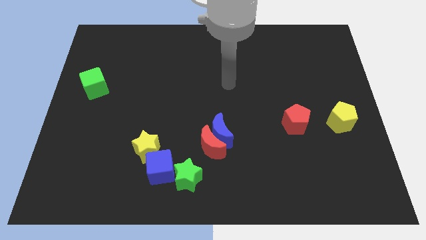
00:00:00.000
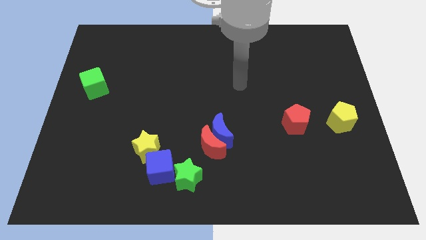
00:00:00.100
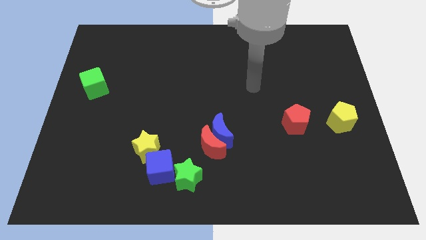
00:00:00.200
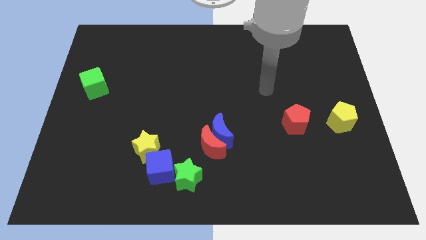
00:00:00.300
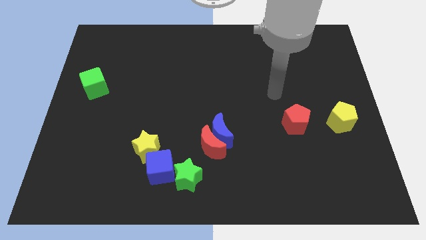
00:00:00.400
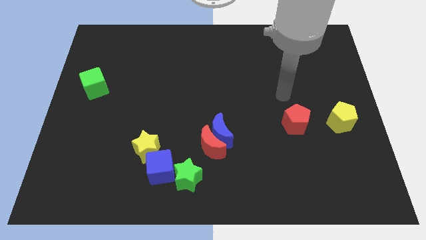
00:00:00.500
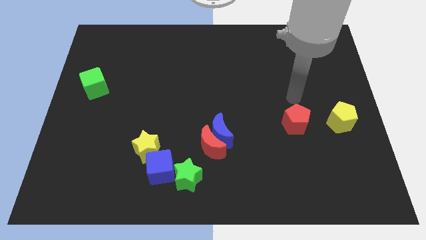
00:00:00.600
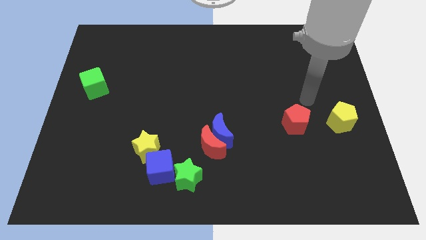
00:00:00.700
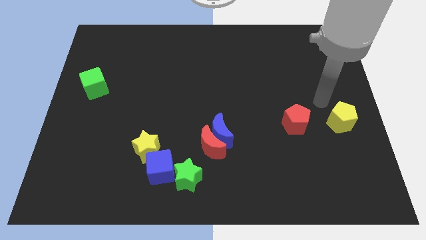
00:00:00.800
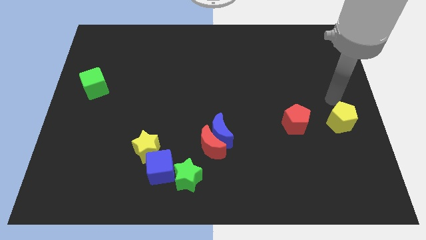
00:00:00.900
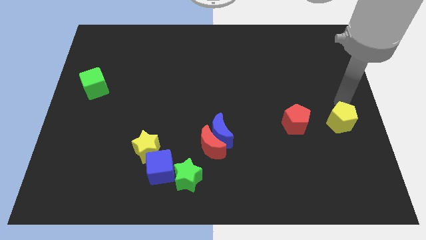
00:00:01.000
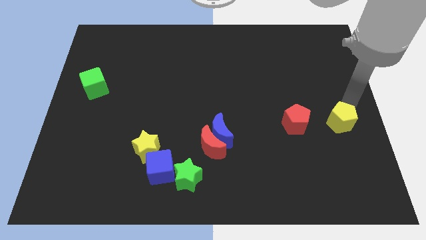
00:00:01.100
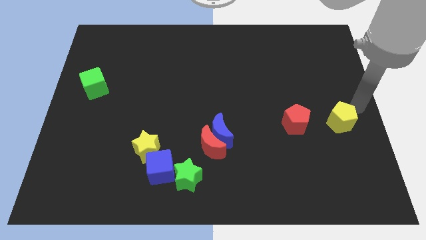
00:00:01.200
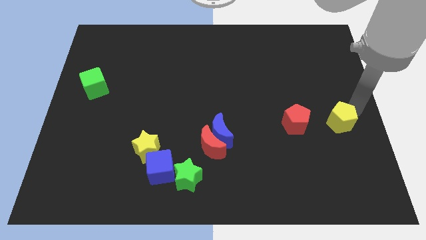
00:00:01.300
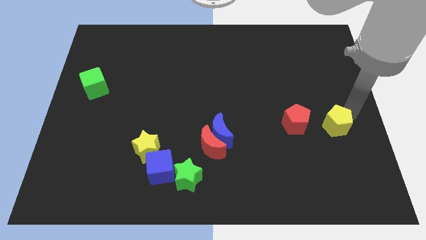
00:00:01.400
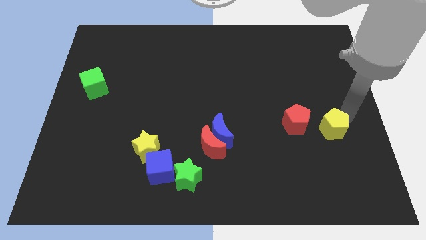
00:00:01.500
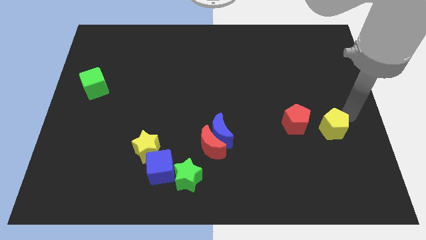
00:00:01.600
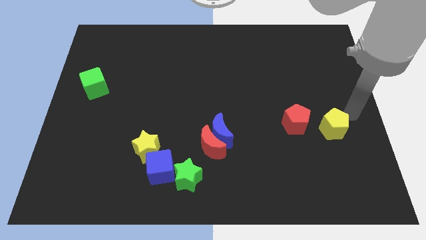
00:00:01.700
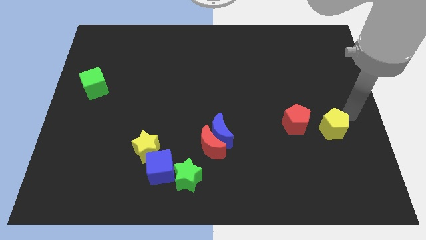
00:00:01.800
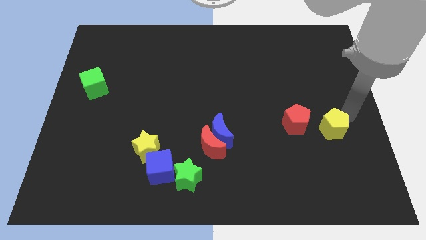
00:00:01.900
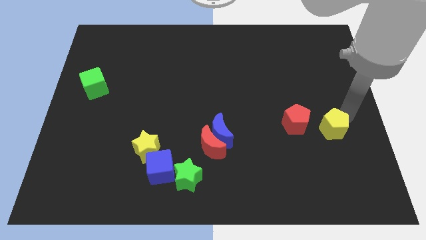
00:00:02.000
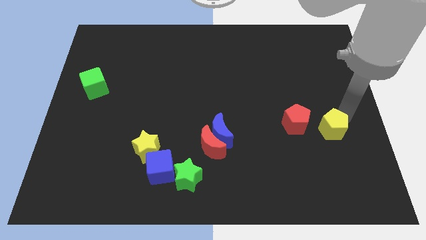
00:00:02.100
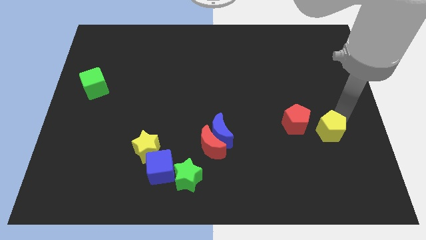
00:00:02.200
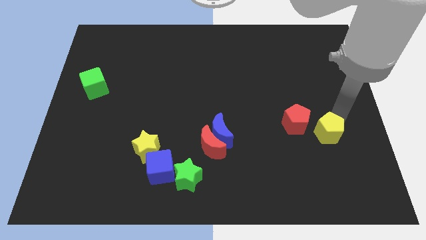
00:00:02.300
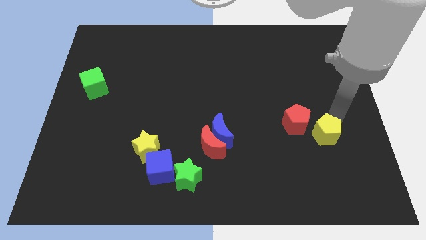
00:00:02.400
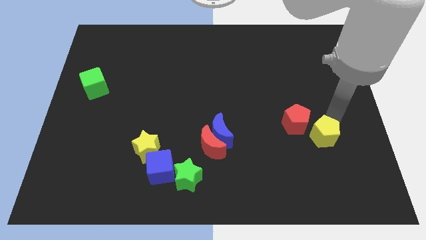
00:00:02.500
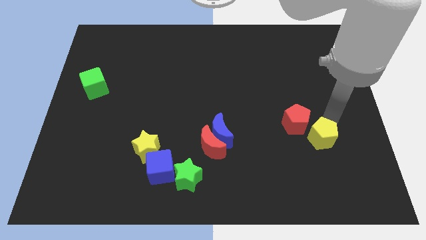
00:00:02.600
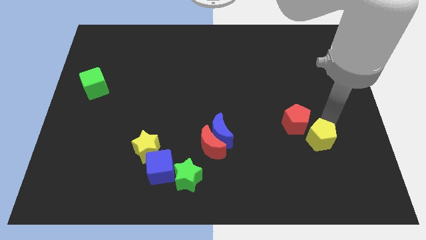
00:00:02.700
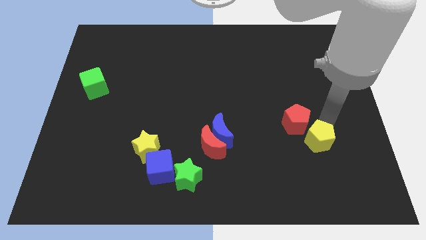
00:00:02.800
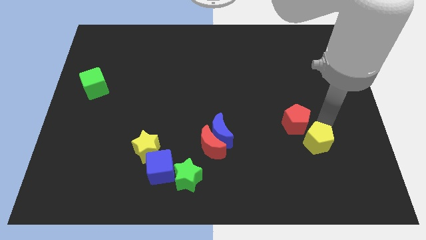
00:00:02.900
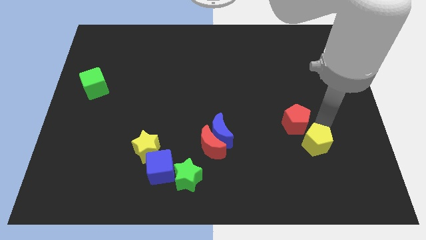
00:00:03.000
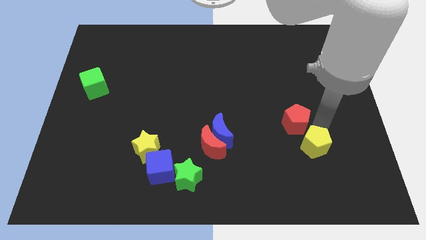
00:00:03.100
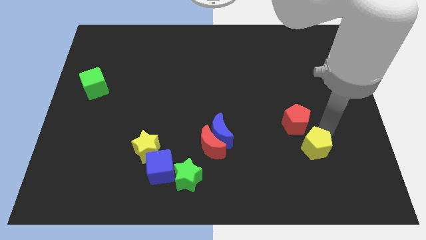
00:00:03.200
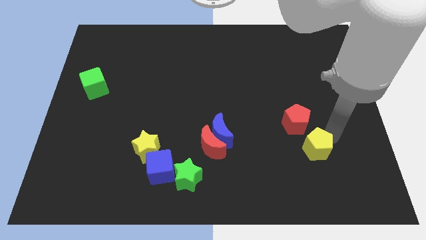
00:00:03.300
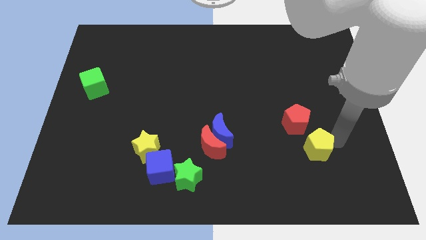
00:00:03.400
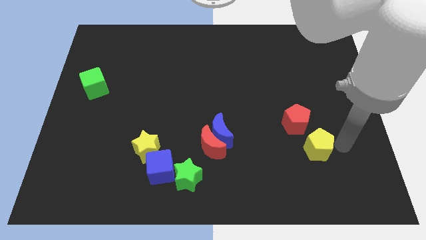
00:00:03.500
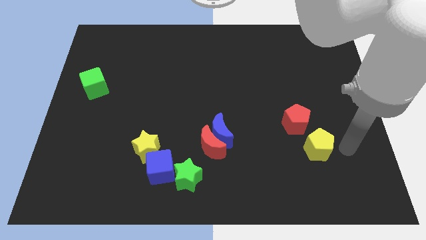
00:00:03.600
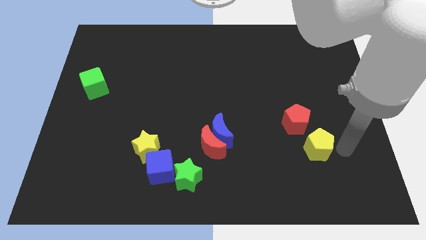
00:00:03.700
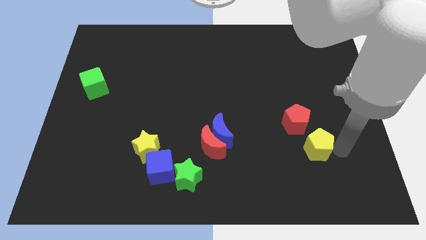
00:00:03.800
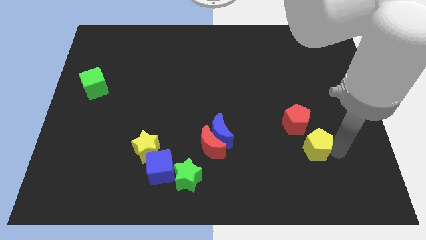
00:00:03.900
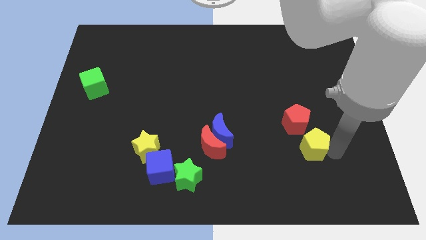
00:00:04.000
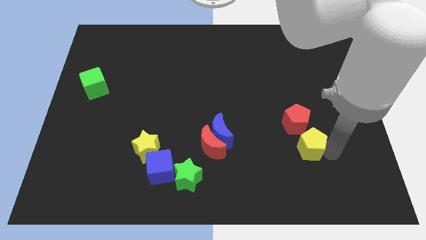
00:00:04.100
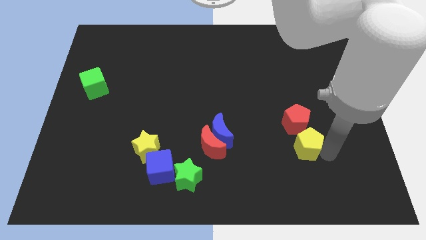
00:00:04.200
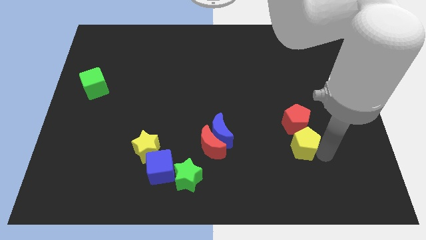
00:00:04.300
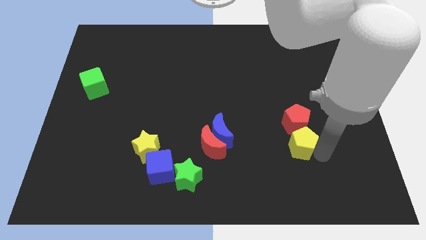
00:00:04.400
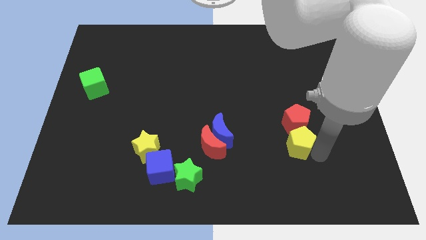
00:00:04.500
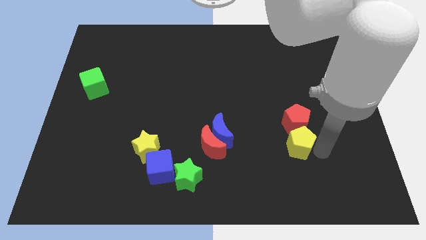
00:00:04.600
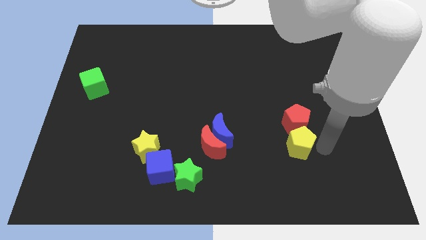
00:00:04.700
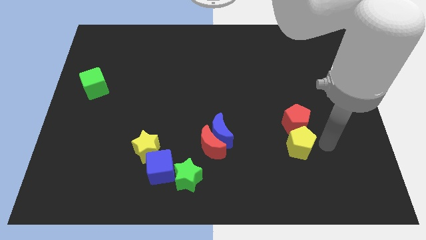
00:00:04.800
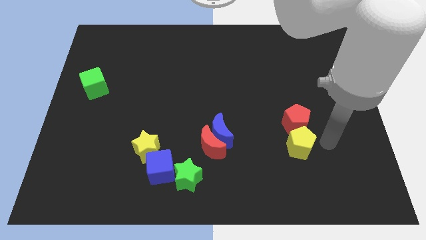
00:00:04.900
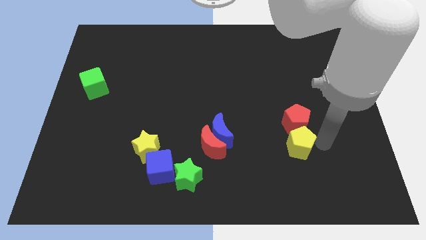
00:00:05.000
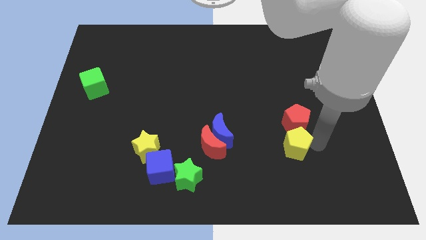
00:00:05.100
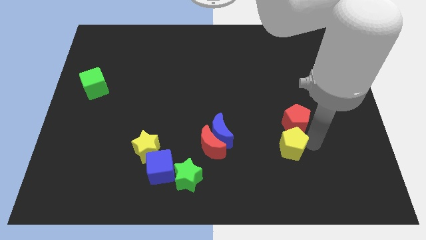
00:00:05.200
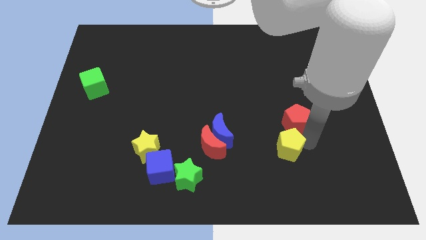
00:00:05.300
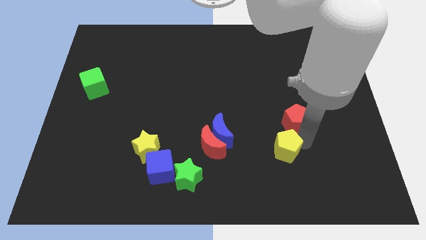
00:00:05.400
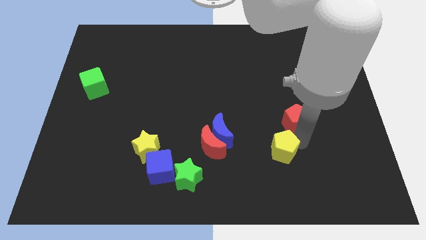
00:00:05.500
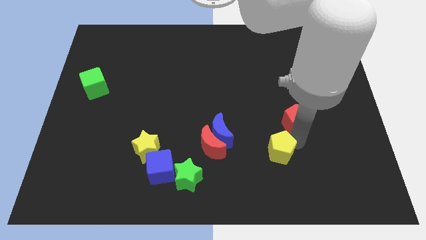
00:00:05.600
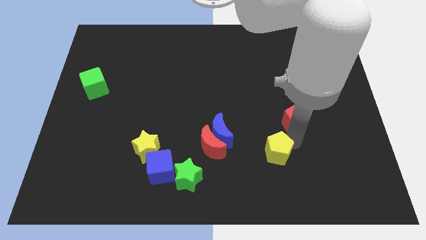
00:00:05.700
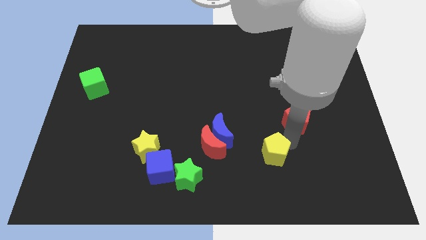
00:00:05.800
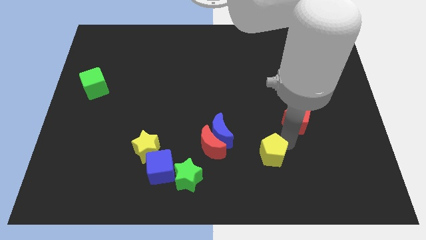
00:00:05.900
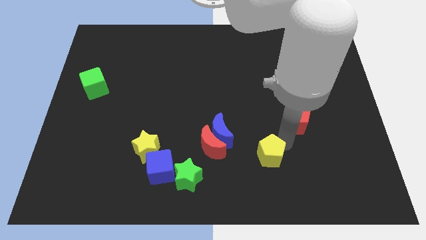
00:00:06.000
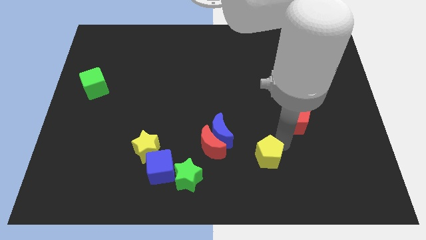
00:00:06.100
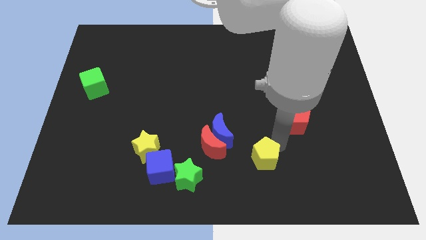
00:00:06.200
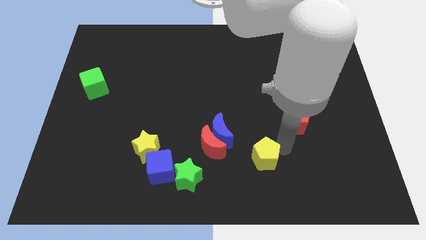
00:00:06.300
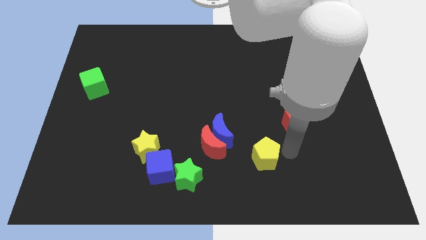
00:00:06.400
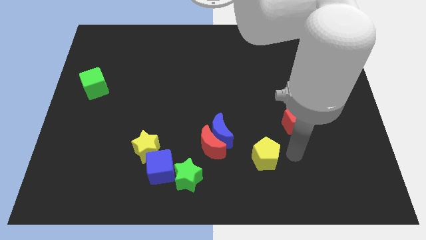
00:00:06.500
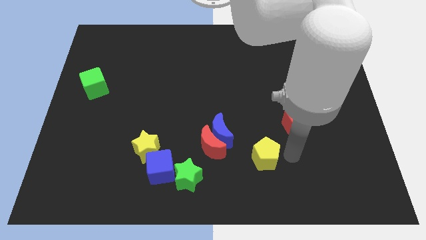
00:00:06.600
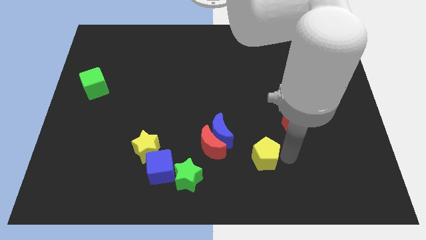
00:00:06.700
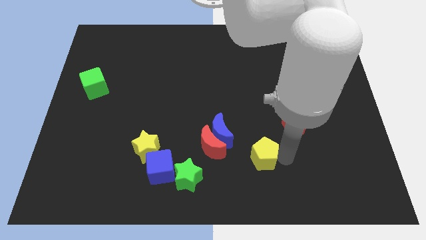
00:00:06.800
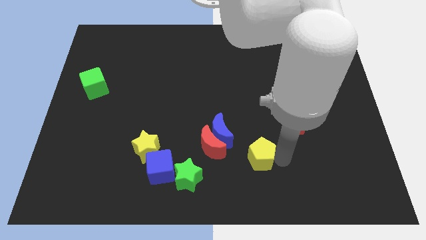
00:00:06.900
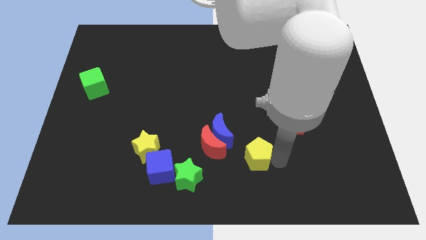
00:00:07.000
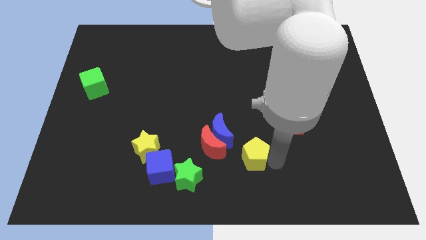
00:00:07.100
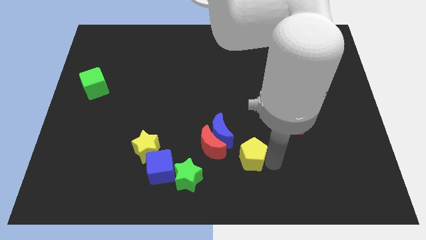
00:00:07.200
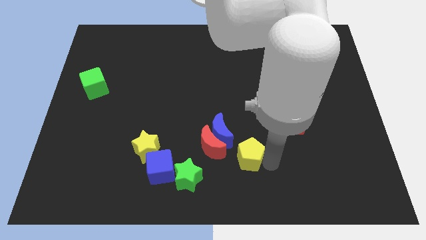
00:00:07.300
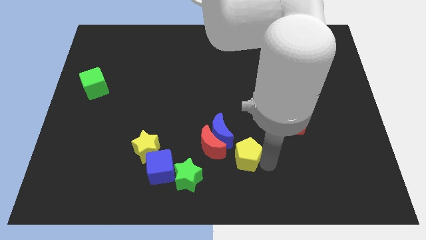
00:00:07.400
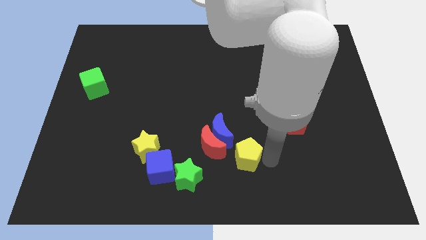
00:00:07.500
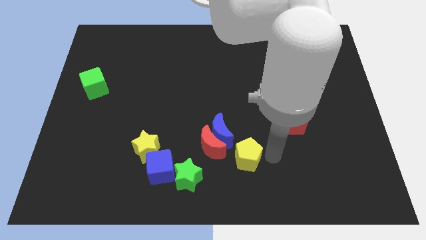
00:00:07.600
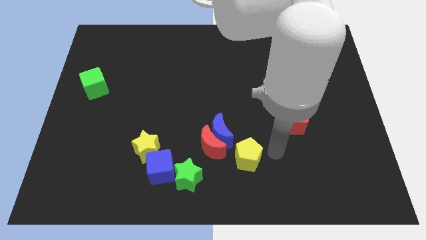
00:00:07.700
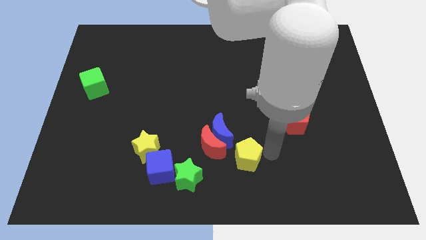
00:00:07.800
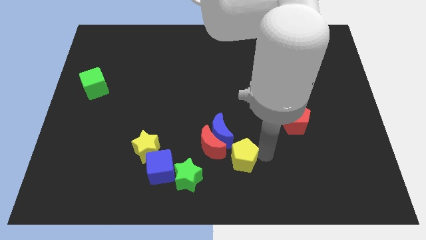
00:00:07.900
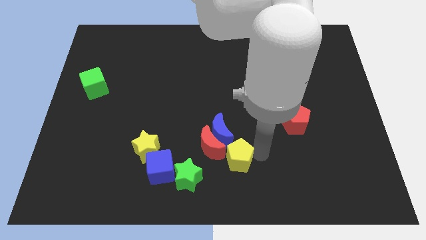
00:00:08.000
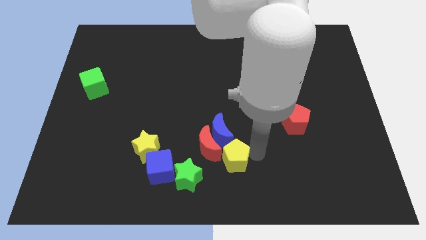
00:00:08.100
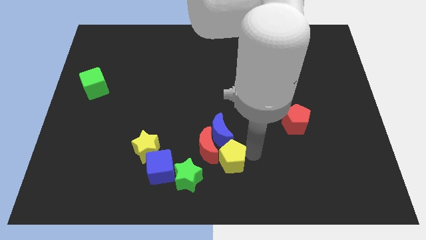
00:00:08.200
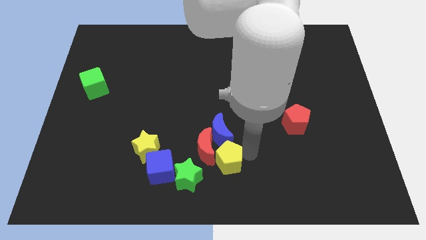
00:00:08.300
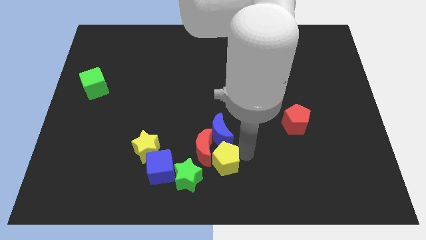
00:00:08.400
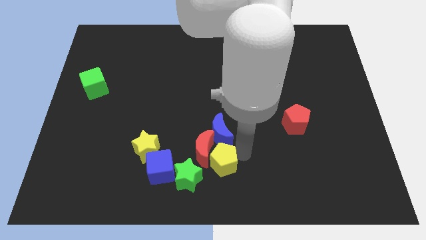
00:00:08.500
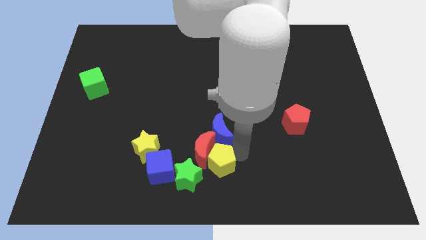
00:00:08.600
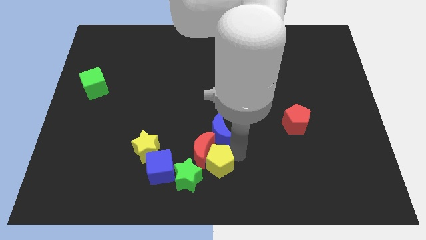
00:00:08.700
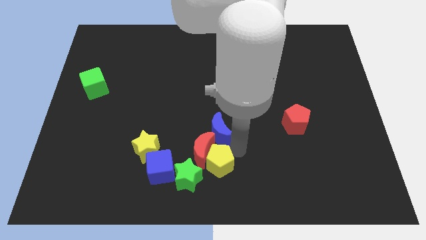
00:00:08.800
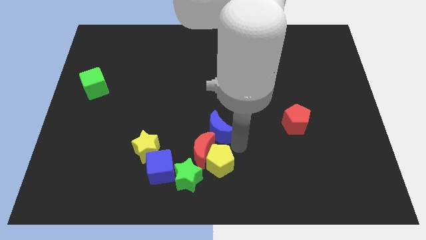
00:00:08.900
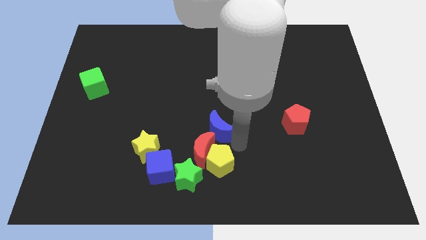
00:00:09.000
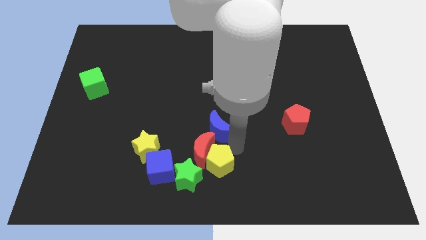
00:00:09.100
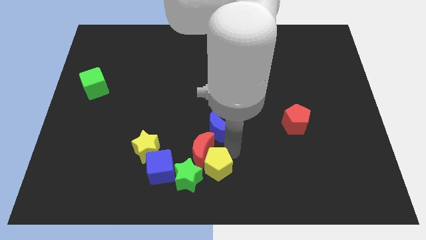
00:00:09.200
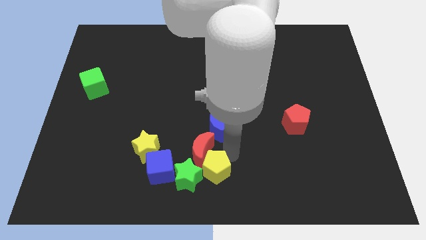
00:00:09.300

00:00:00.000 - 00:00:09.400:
slide the yellow pentagon towards the green star
